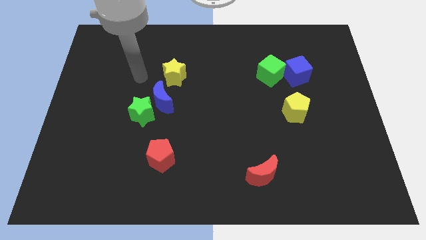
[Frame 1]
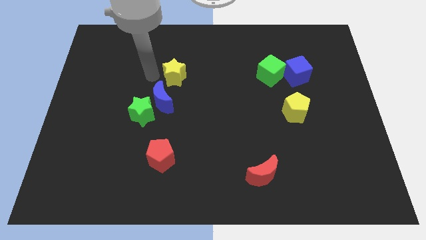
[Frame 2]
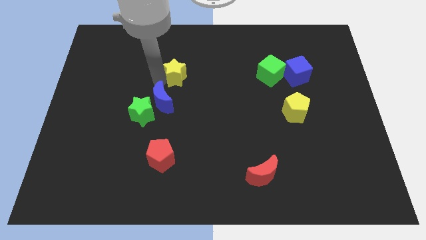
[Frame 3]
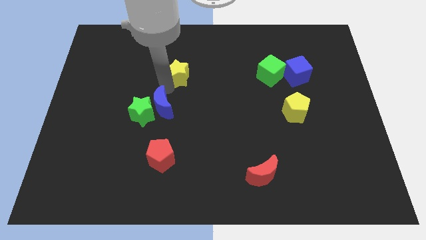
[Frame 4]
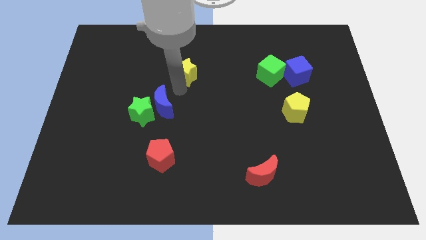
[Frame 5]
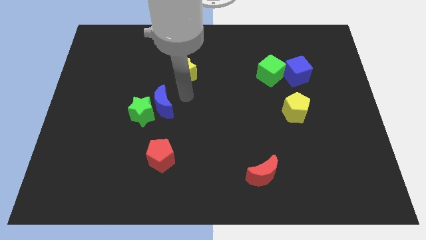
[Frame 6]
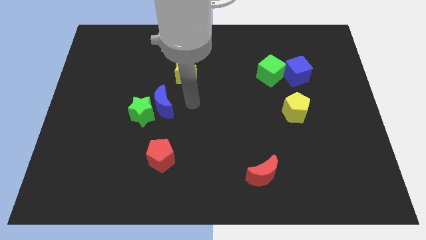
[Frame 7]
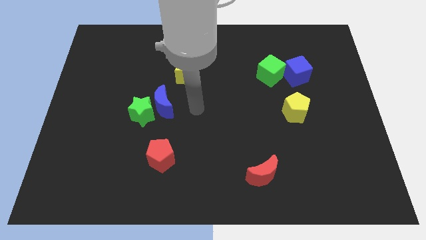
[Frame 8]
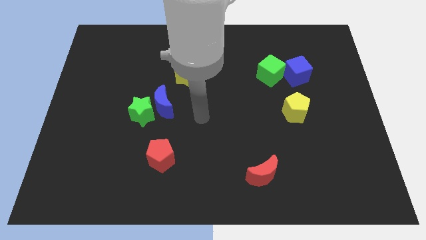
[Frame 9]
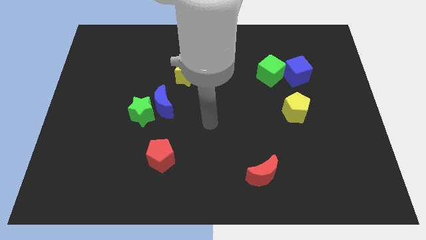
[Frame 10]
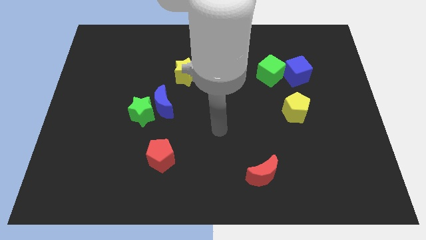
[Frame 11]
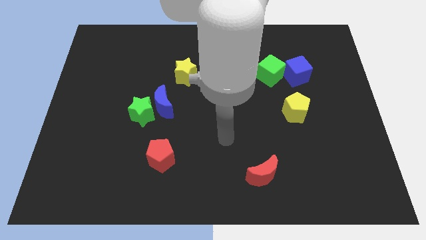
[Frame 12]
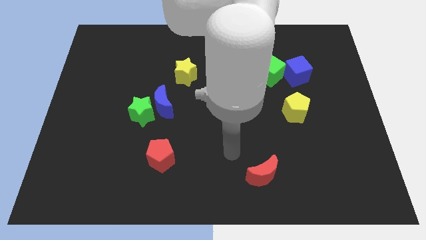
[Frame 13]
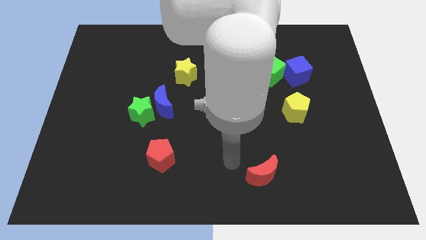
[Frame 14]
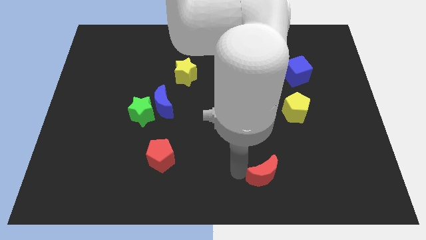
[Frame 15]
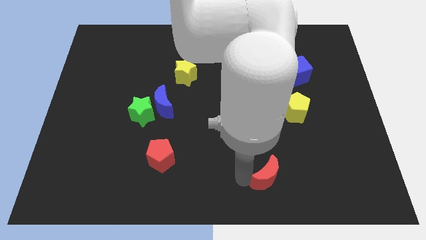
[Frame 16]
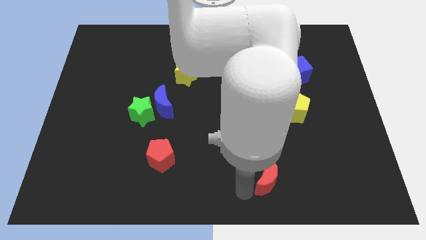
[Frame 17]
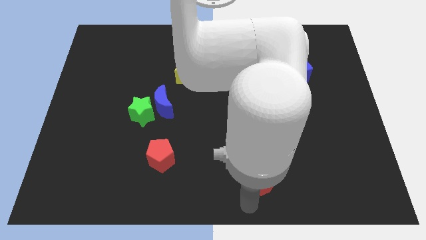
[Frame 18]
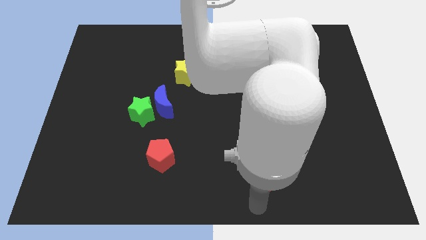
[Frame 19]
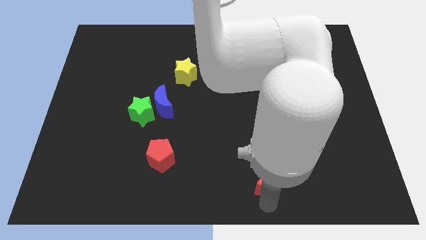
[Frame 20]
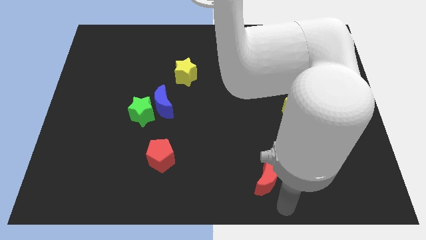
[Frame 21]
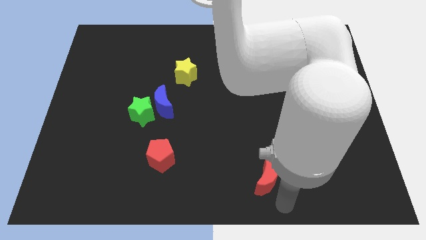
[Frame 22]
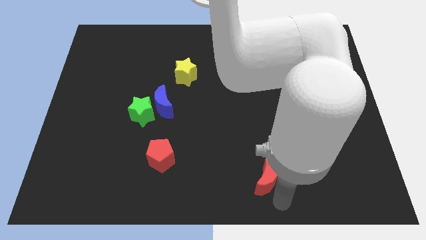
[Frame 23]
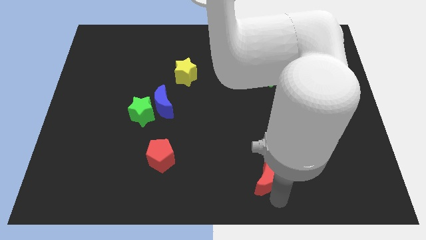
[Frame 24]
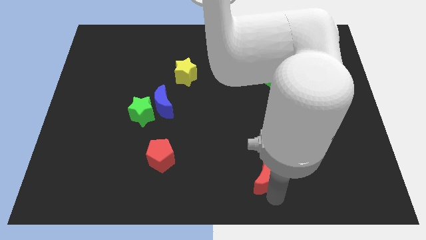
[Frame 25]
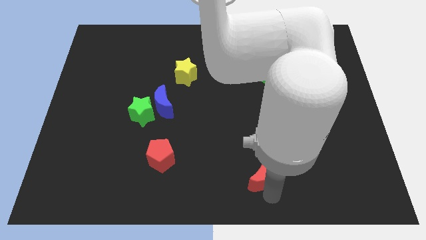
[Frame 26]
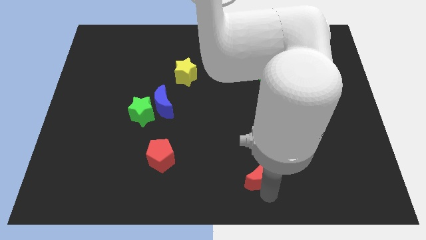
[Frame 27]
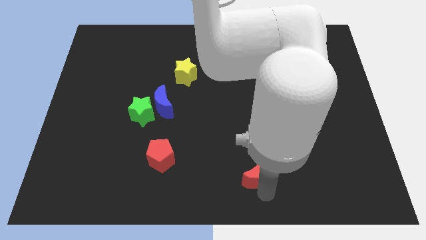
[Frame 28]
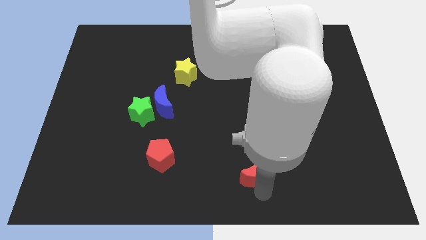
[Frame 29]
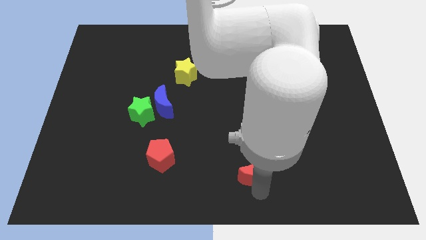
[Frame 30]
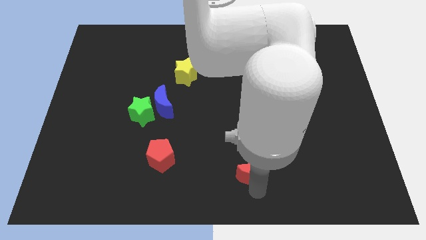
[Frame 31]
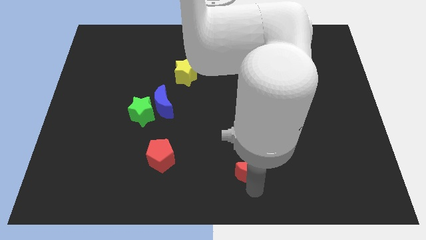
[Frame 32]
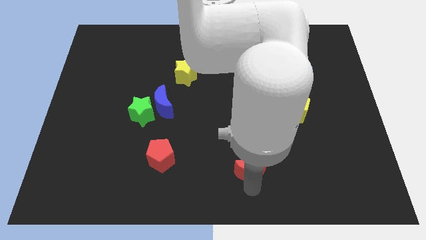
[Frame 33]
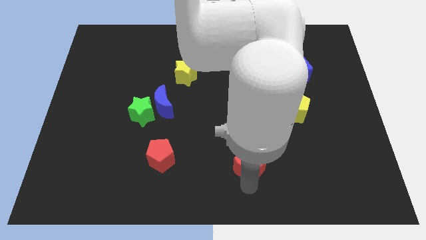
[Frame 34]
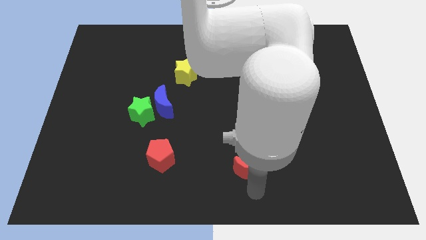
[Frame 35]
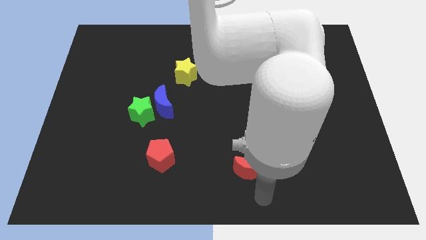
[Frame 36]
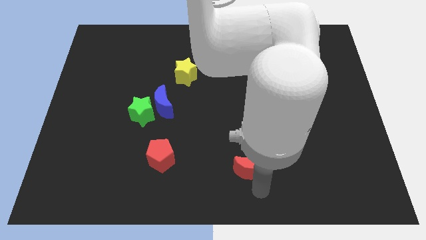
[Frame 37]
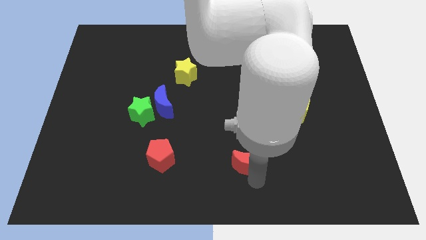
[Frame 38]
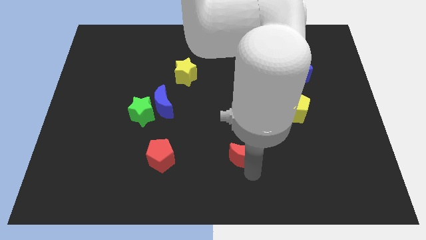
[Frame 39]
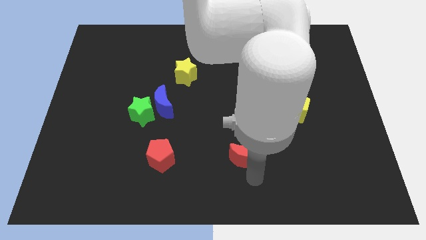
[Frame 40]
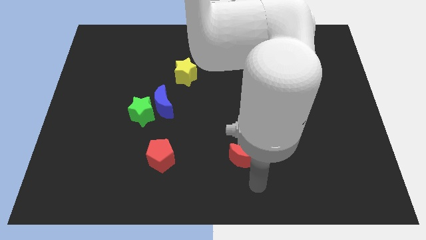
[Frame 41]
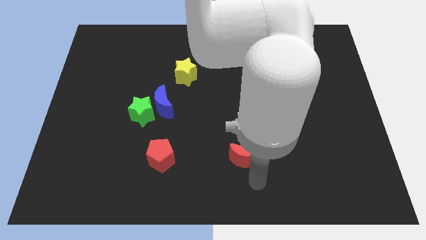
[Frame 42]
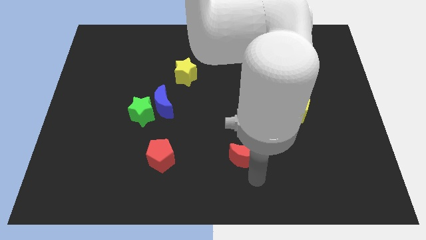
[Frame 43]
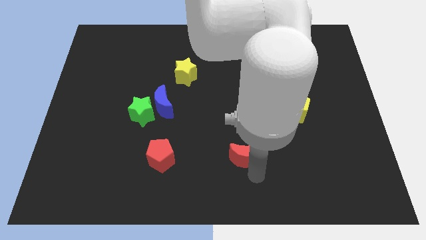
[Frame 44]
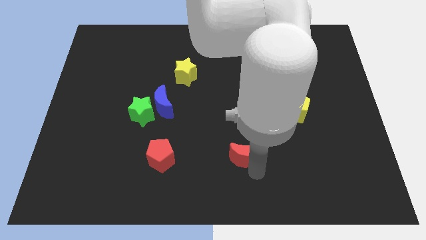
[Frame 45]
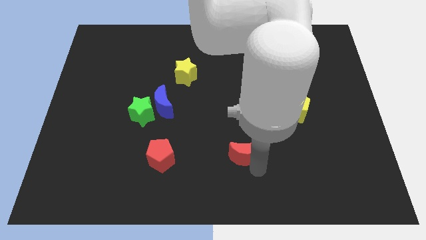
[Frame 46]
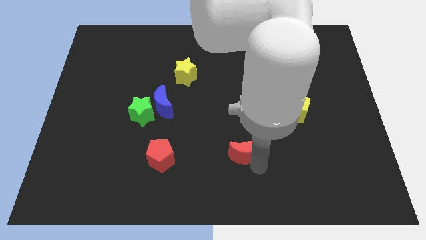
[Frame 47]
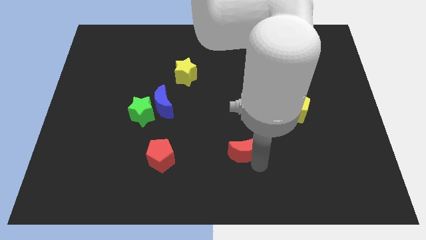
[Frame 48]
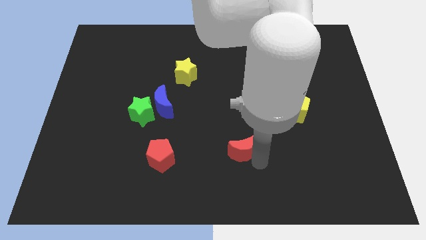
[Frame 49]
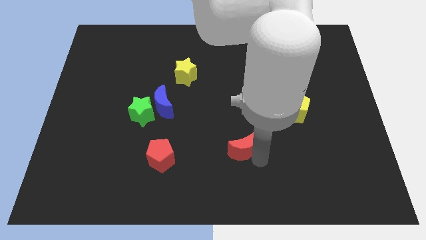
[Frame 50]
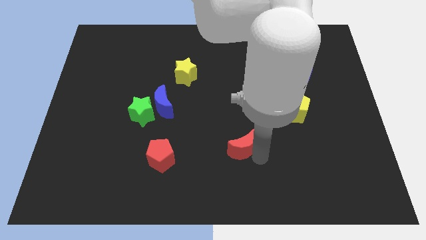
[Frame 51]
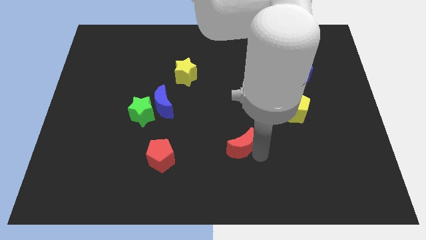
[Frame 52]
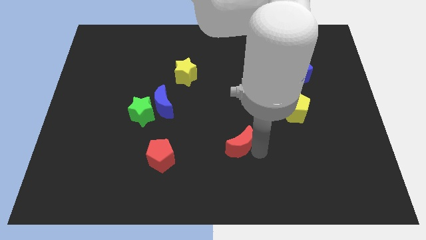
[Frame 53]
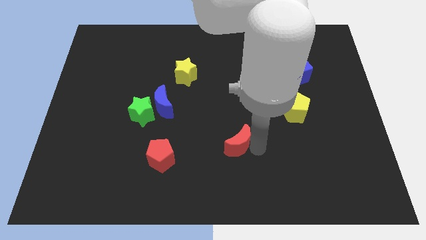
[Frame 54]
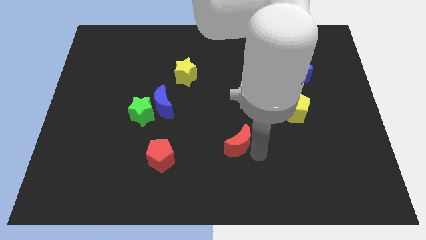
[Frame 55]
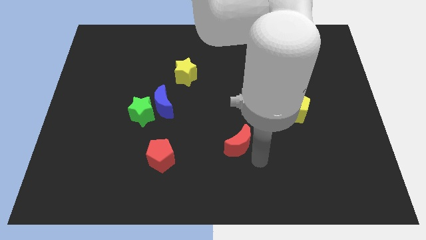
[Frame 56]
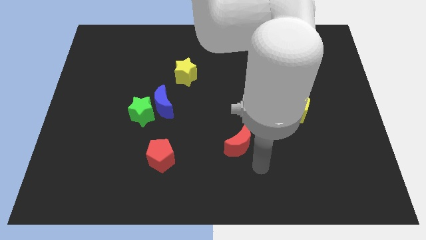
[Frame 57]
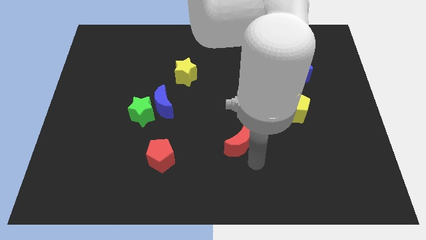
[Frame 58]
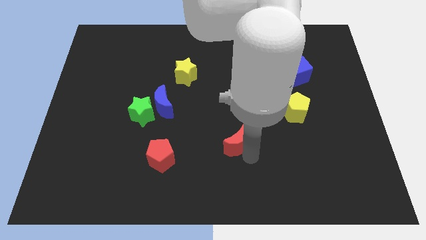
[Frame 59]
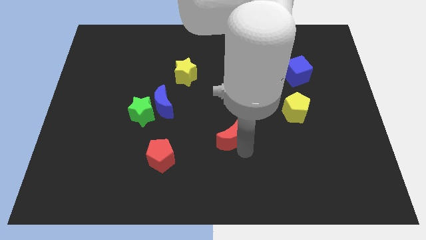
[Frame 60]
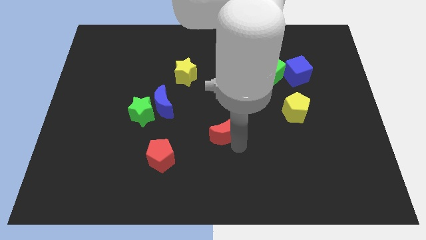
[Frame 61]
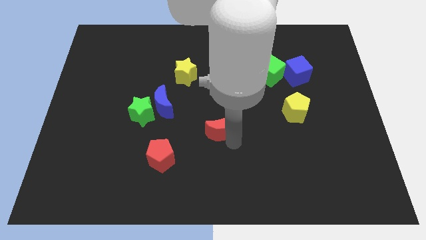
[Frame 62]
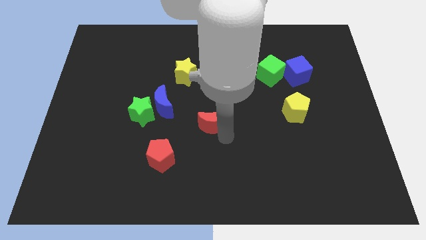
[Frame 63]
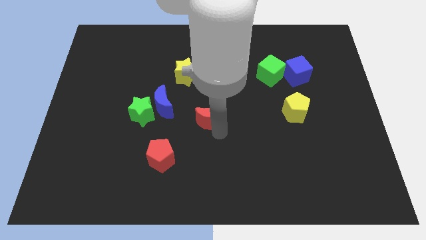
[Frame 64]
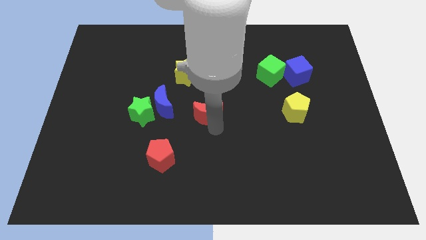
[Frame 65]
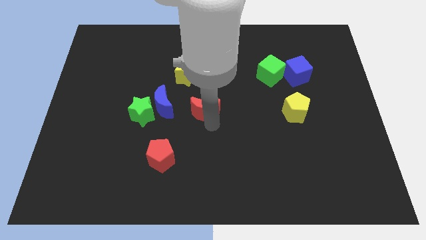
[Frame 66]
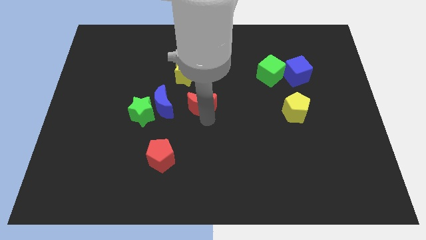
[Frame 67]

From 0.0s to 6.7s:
move the red moon diagonally down and to the right of the yellow star

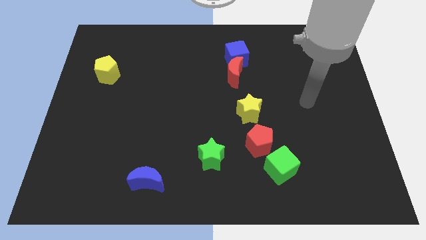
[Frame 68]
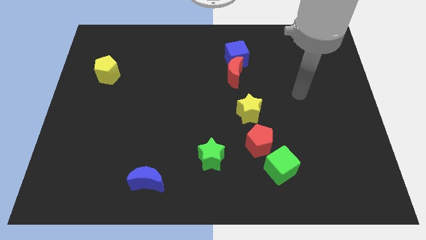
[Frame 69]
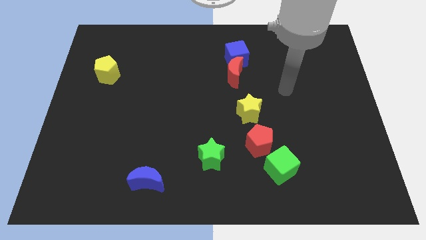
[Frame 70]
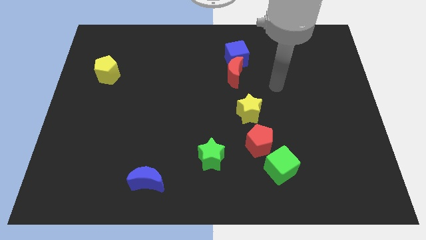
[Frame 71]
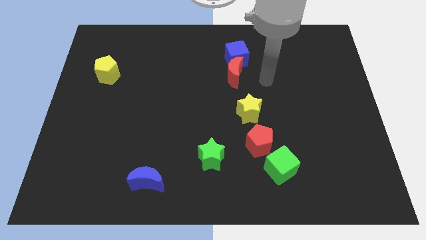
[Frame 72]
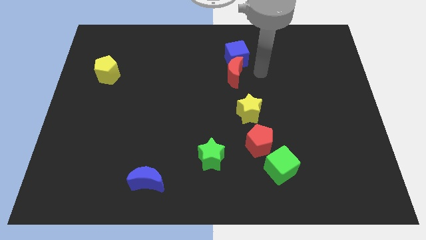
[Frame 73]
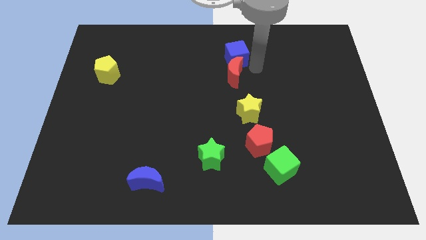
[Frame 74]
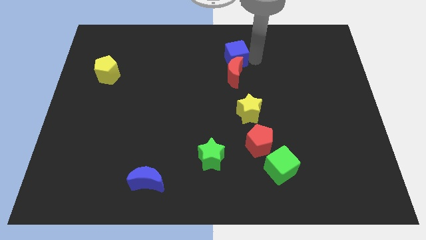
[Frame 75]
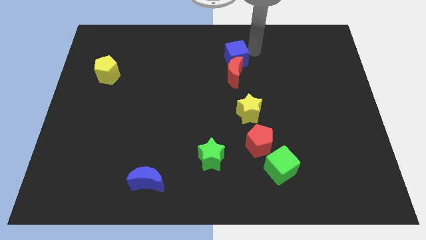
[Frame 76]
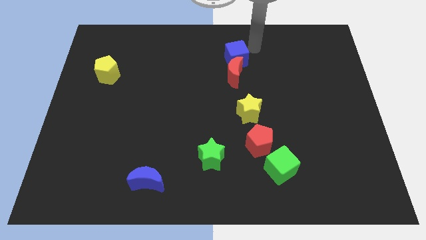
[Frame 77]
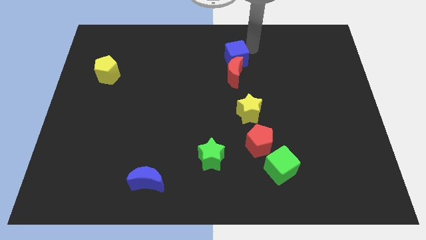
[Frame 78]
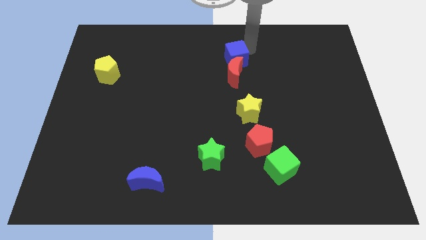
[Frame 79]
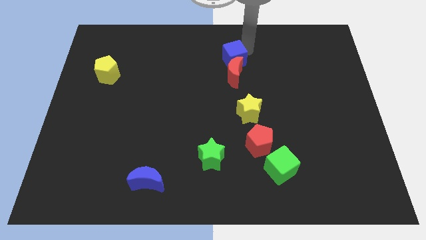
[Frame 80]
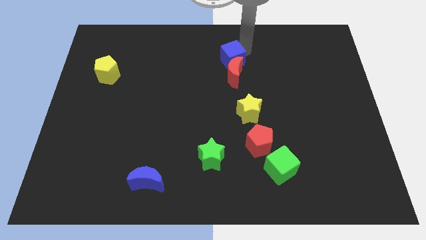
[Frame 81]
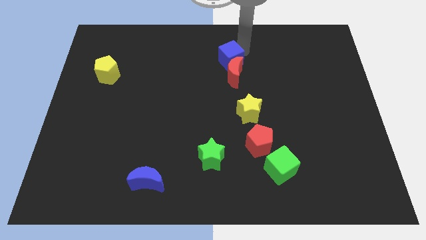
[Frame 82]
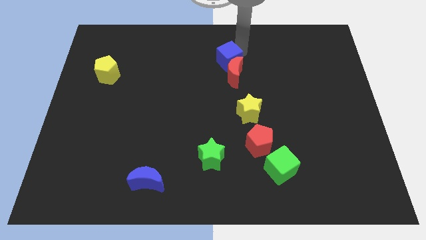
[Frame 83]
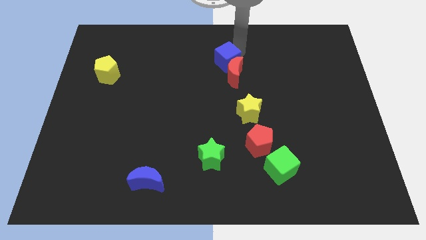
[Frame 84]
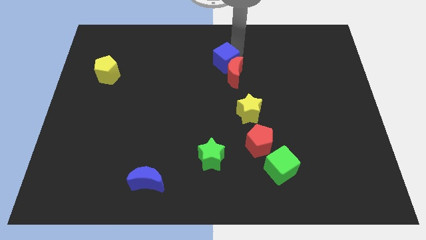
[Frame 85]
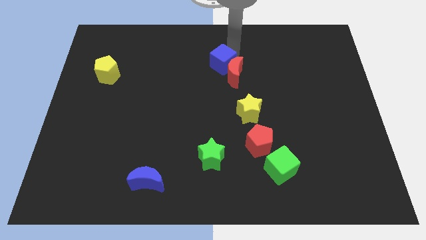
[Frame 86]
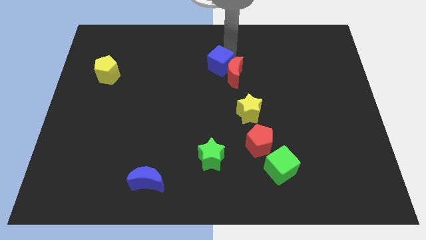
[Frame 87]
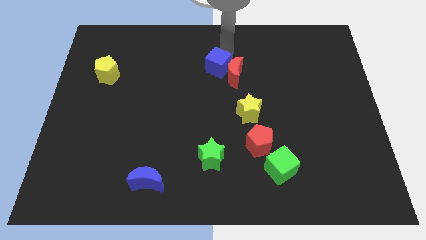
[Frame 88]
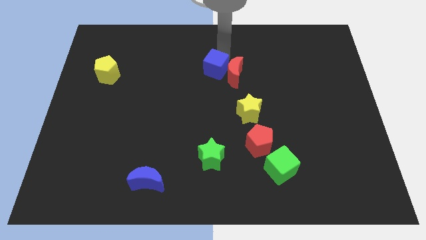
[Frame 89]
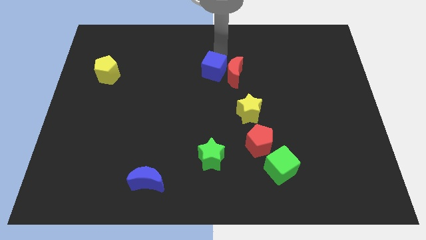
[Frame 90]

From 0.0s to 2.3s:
move the blue cube to the bottom left side of the red moon
